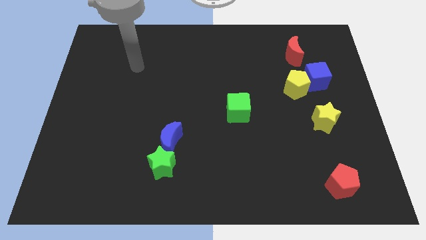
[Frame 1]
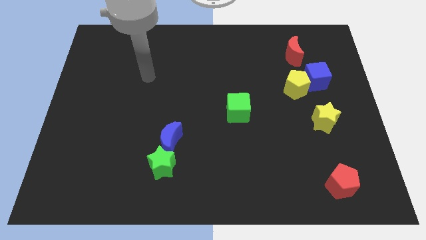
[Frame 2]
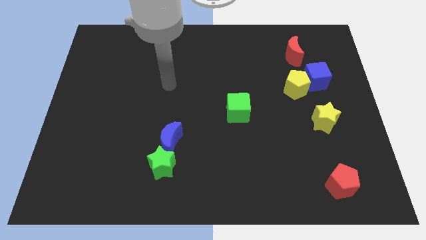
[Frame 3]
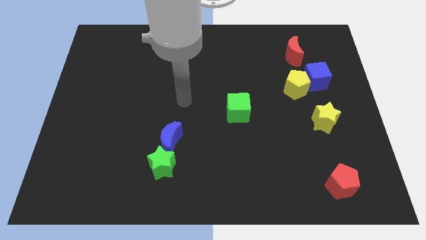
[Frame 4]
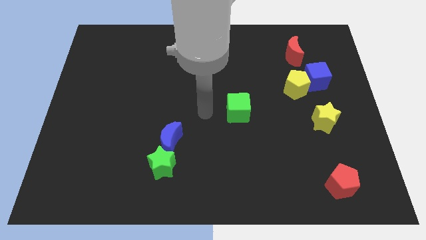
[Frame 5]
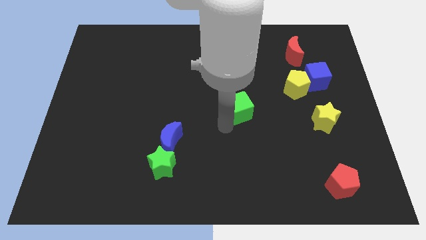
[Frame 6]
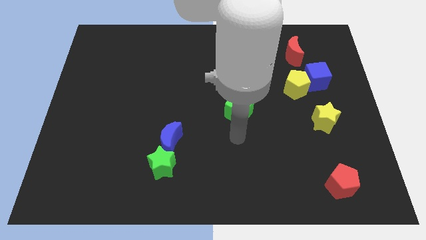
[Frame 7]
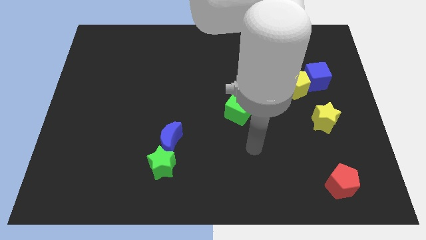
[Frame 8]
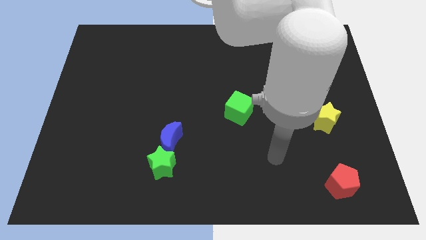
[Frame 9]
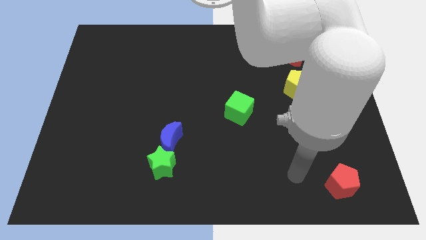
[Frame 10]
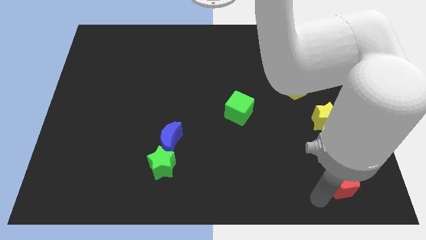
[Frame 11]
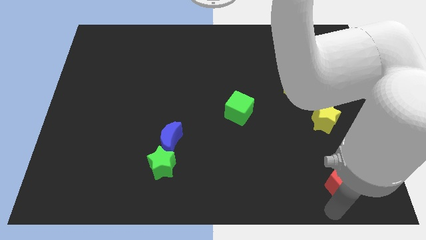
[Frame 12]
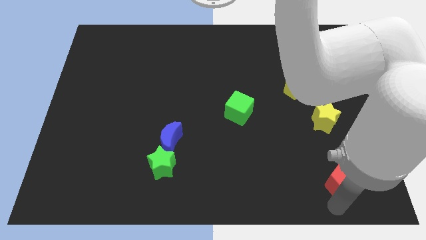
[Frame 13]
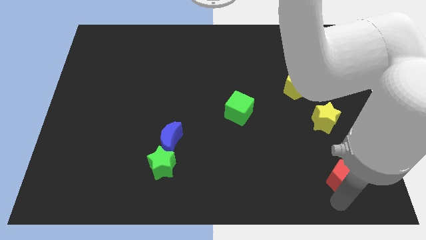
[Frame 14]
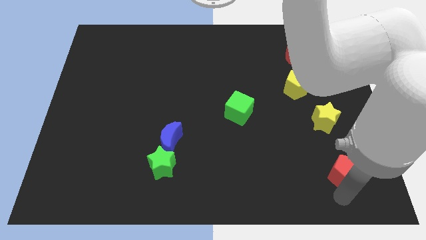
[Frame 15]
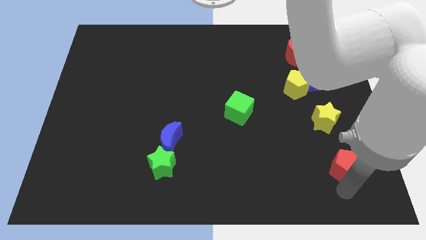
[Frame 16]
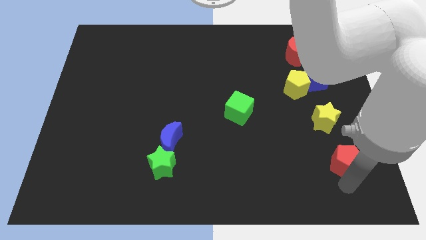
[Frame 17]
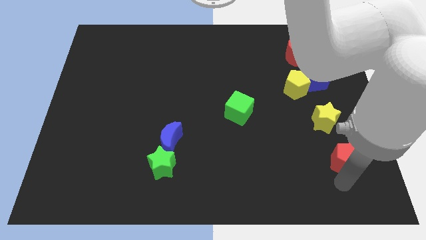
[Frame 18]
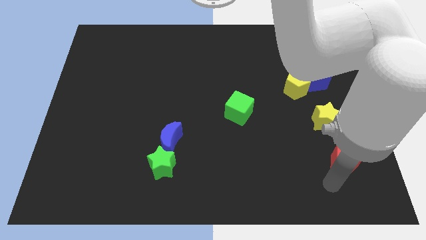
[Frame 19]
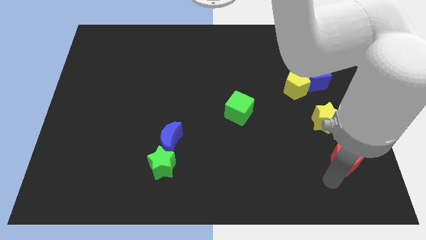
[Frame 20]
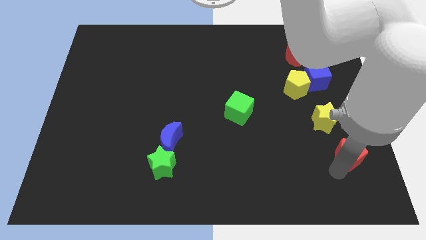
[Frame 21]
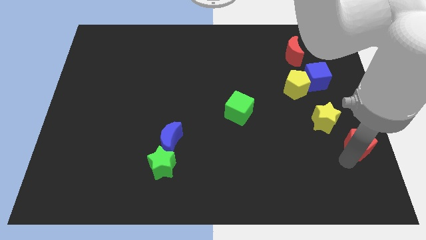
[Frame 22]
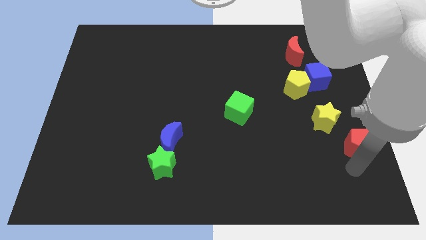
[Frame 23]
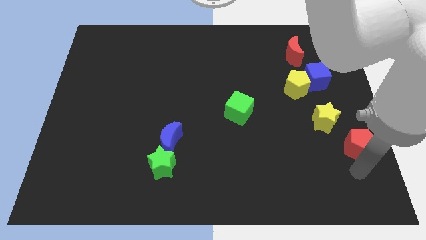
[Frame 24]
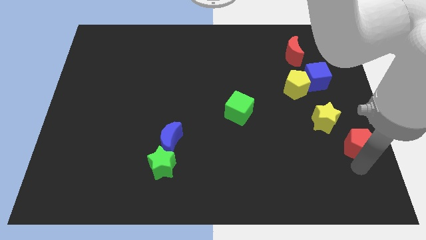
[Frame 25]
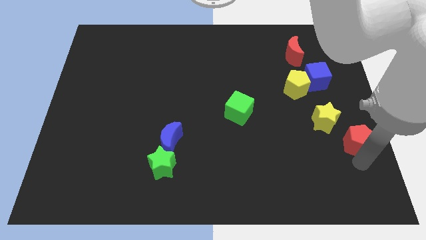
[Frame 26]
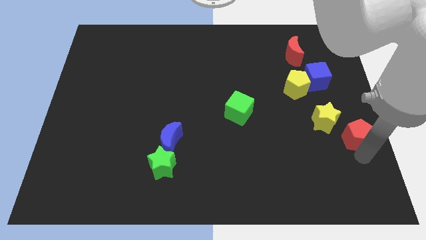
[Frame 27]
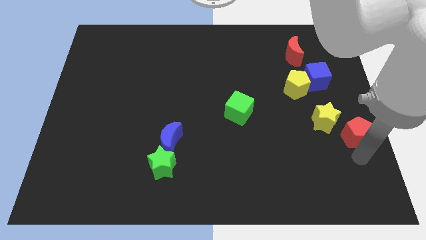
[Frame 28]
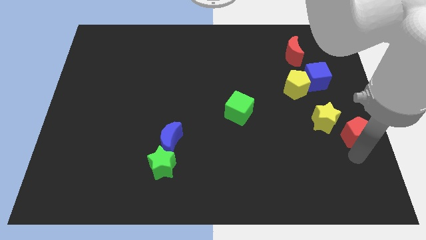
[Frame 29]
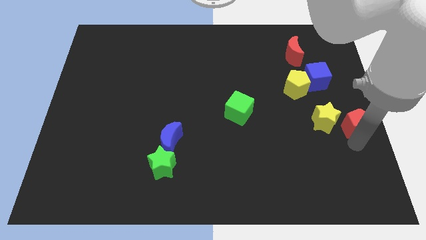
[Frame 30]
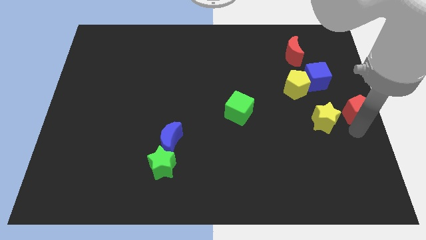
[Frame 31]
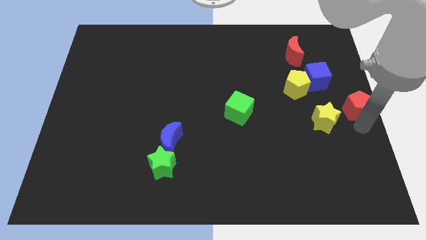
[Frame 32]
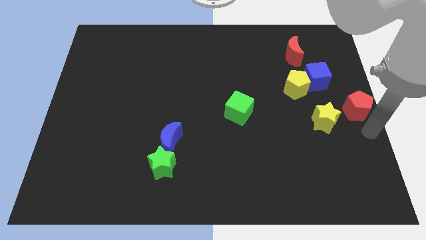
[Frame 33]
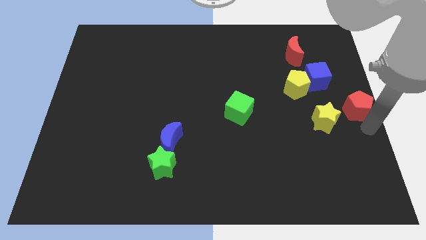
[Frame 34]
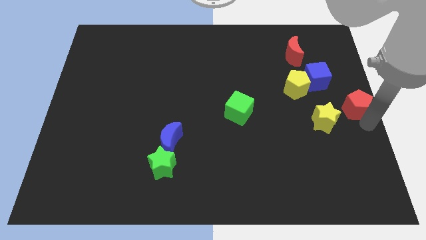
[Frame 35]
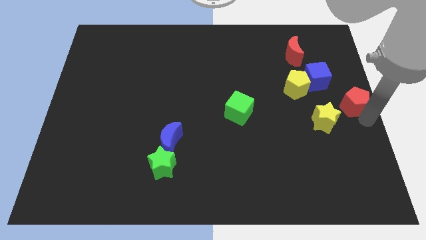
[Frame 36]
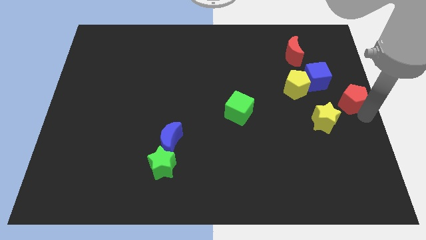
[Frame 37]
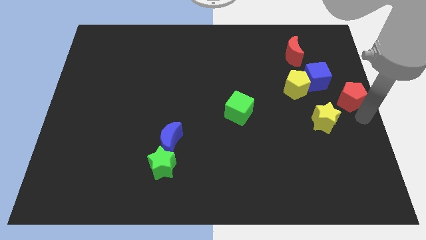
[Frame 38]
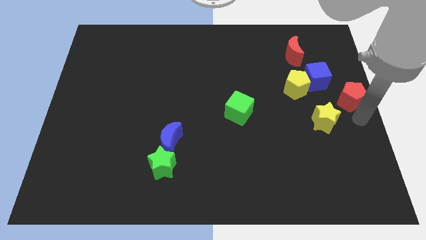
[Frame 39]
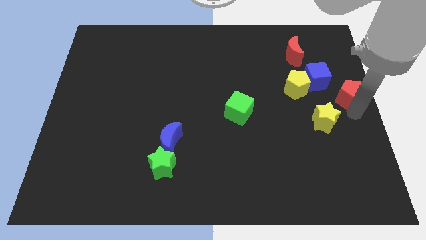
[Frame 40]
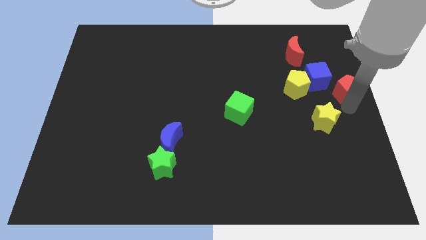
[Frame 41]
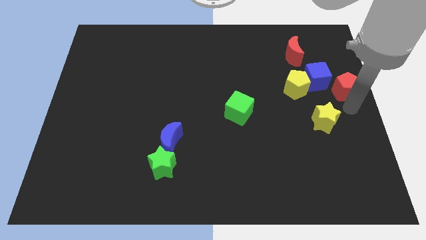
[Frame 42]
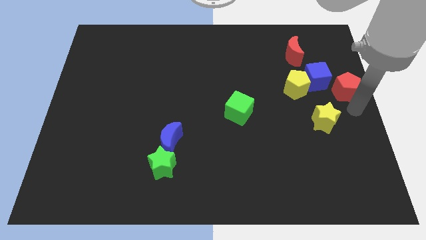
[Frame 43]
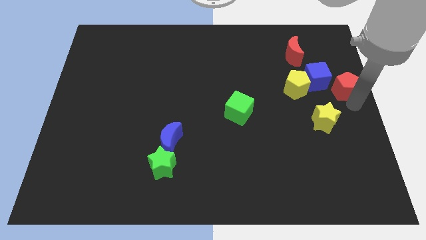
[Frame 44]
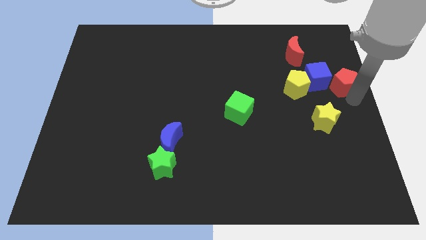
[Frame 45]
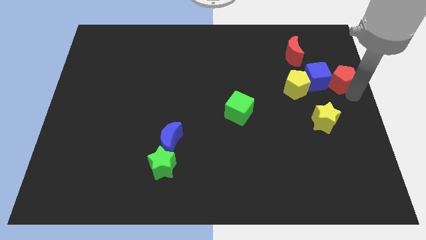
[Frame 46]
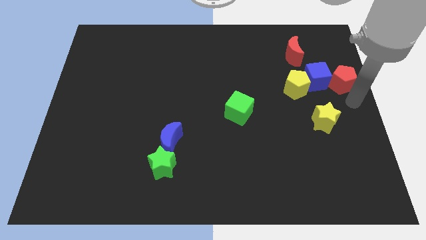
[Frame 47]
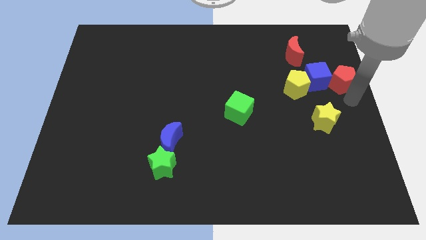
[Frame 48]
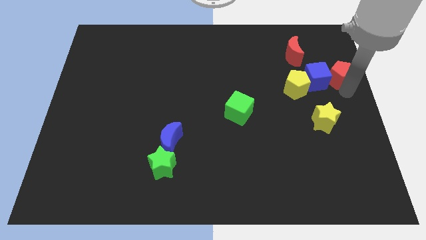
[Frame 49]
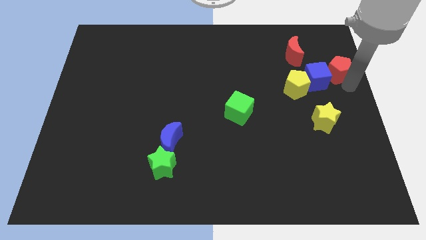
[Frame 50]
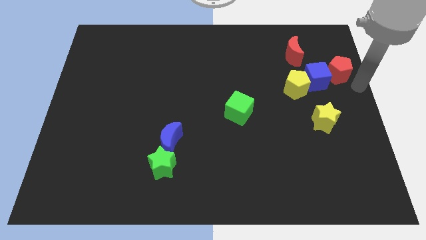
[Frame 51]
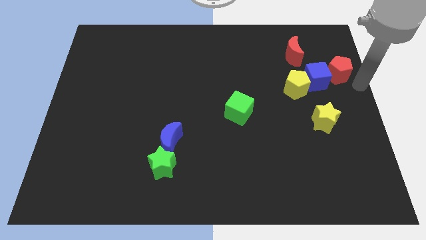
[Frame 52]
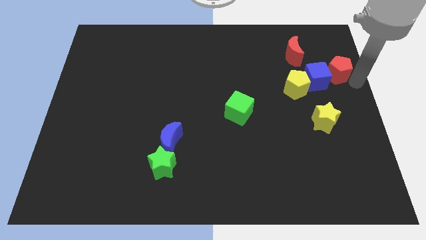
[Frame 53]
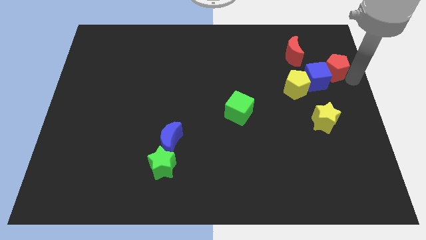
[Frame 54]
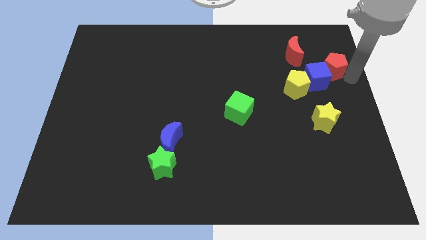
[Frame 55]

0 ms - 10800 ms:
push the red pentagon to the top right of the yellow pentagon

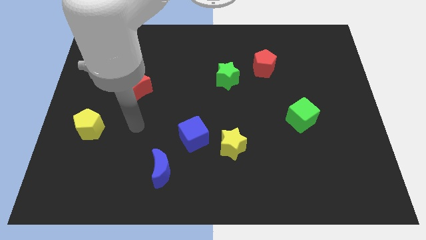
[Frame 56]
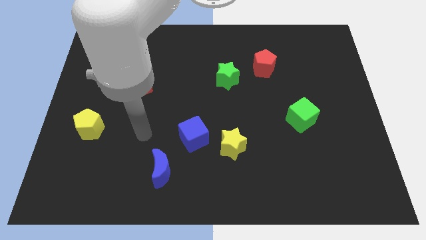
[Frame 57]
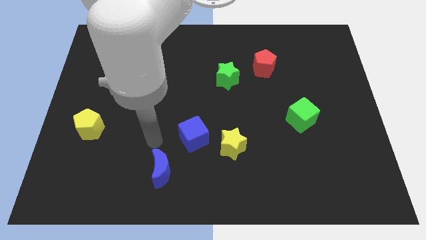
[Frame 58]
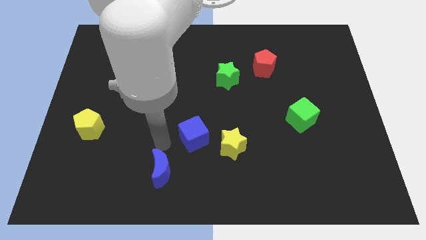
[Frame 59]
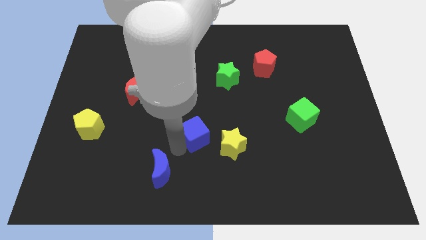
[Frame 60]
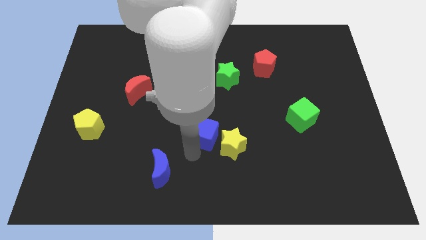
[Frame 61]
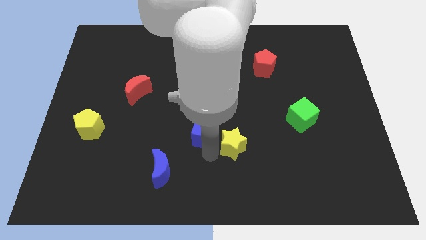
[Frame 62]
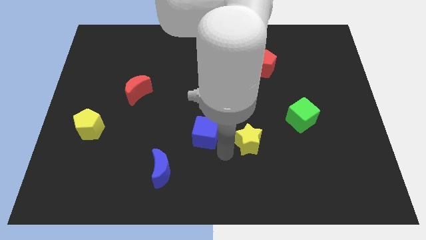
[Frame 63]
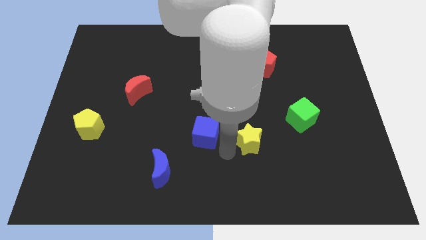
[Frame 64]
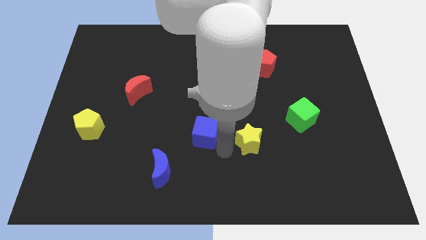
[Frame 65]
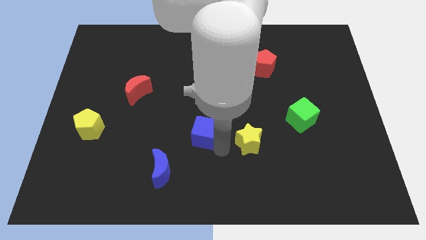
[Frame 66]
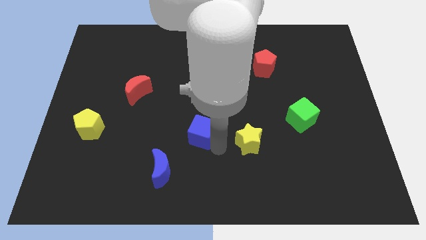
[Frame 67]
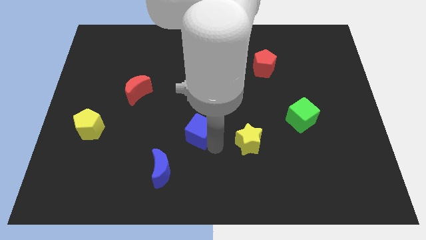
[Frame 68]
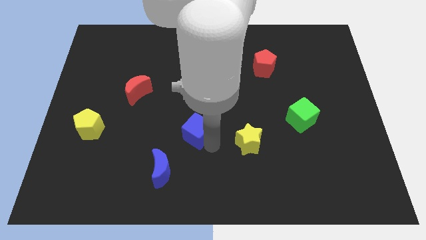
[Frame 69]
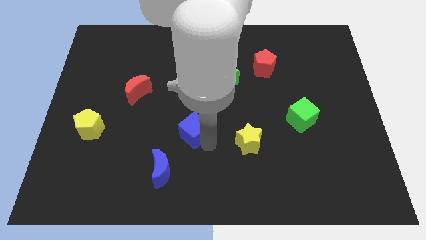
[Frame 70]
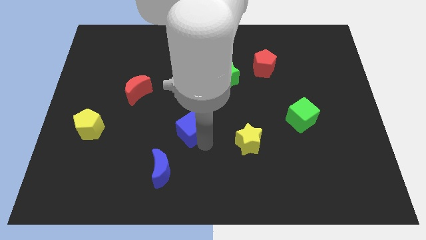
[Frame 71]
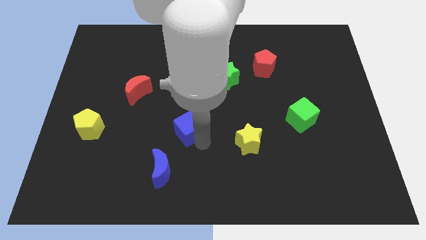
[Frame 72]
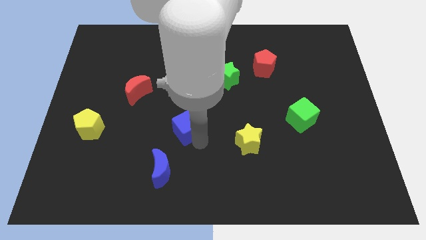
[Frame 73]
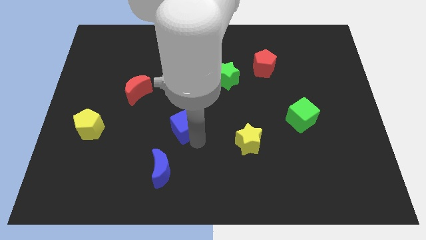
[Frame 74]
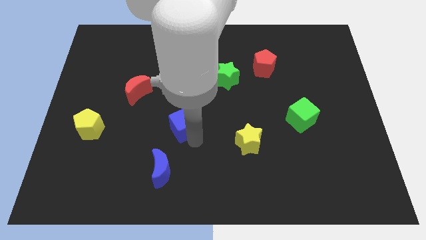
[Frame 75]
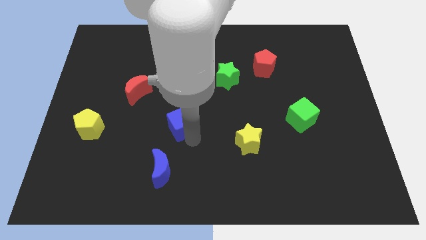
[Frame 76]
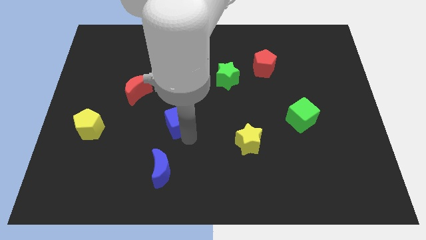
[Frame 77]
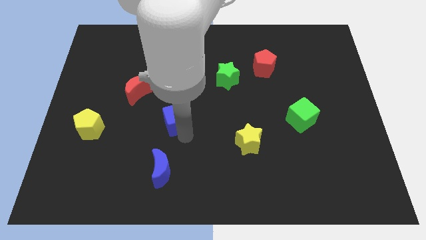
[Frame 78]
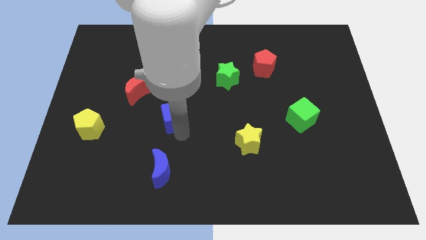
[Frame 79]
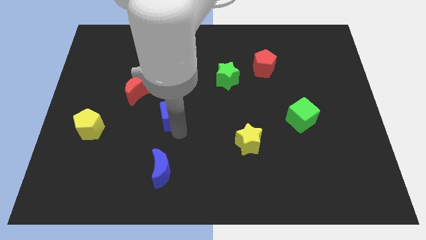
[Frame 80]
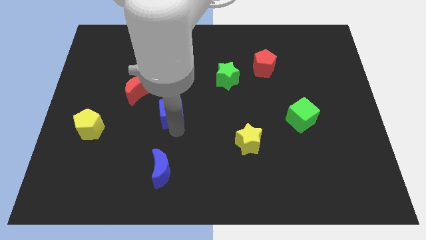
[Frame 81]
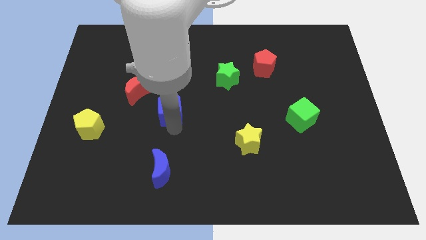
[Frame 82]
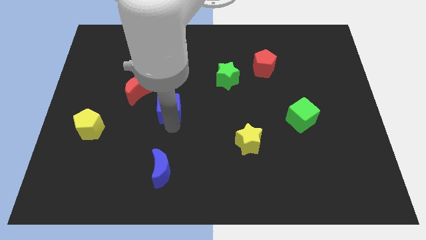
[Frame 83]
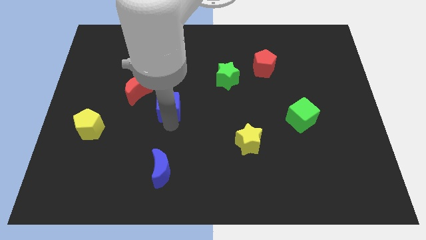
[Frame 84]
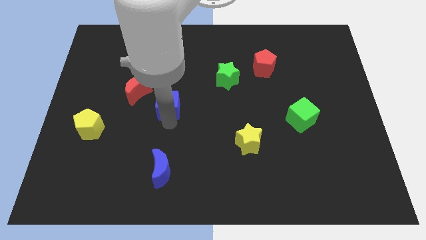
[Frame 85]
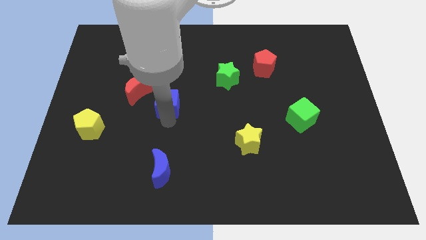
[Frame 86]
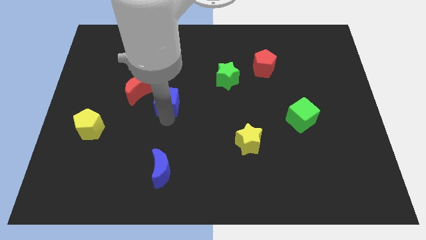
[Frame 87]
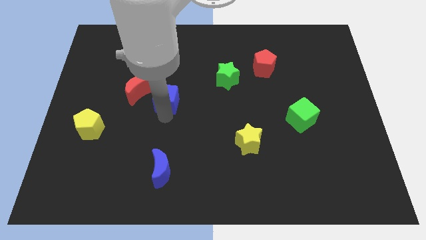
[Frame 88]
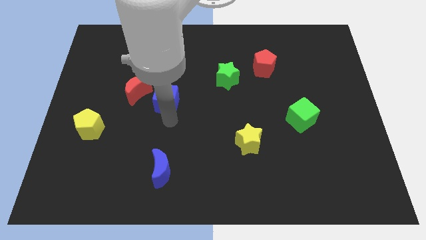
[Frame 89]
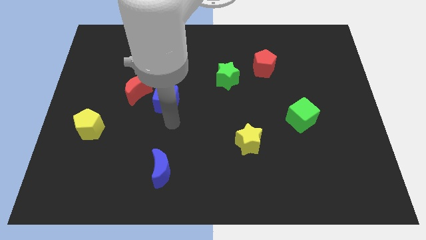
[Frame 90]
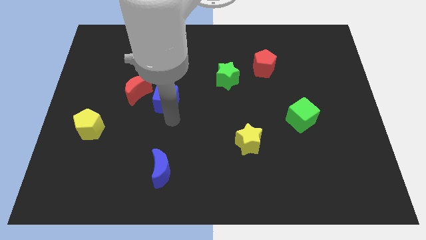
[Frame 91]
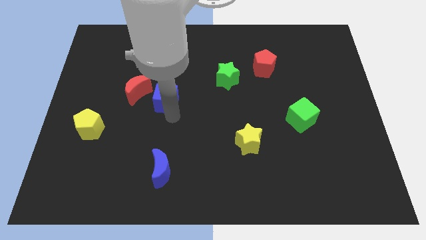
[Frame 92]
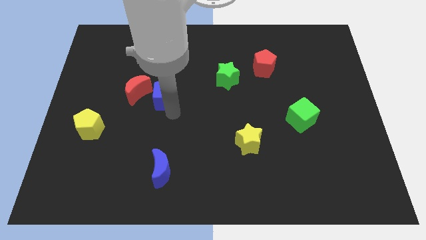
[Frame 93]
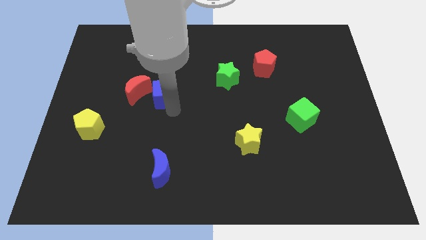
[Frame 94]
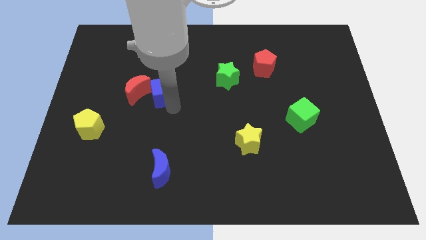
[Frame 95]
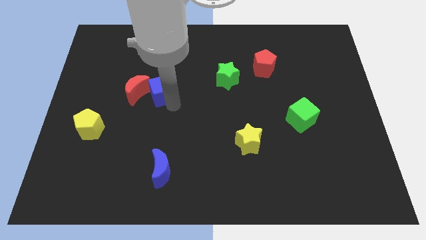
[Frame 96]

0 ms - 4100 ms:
push the blue cube diagonally up and to the right of the red moon
